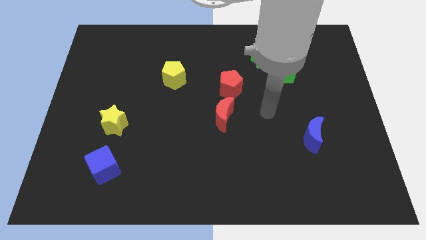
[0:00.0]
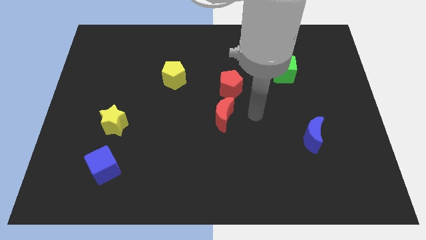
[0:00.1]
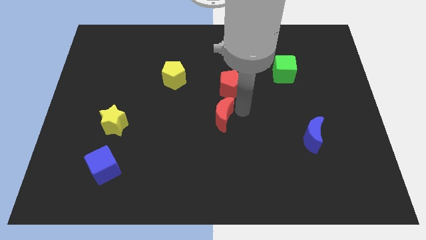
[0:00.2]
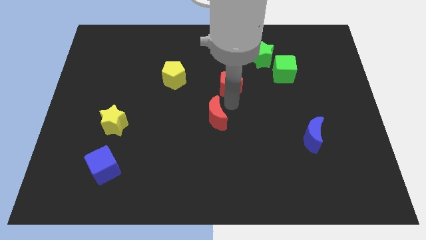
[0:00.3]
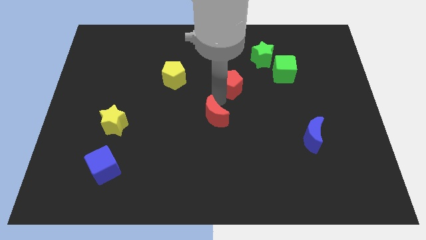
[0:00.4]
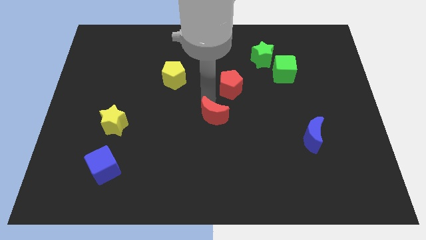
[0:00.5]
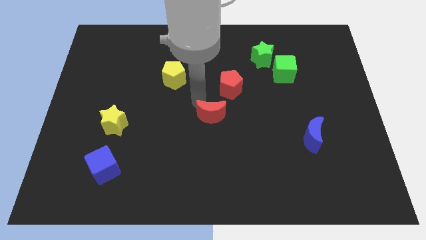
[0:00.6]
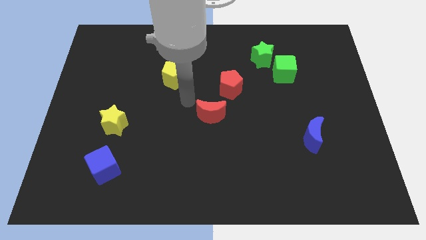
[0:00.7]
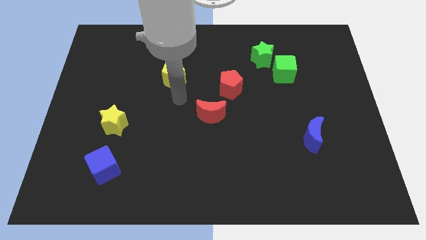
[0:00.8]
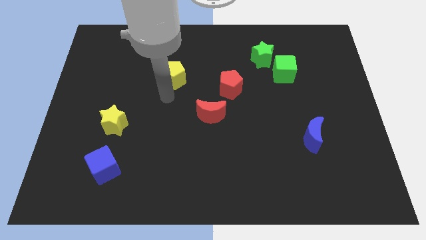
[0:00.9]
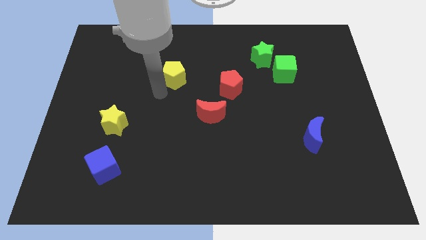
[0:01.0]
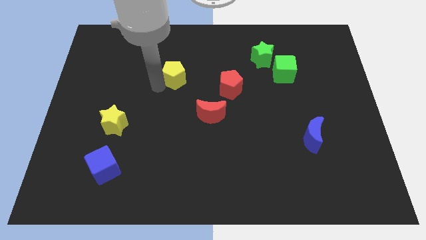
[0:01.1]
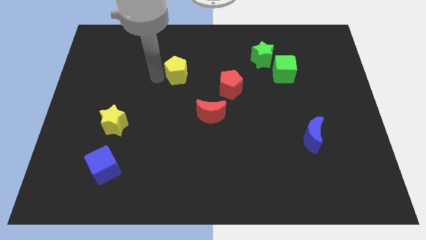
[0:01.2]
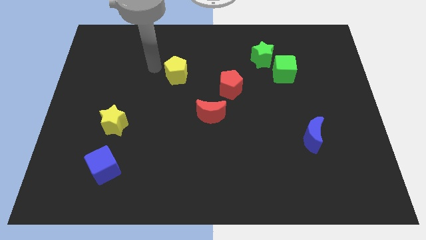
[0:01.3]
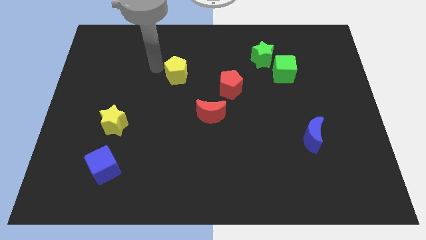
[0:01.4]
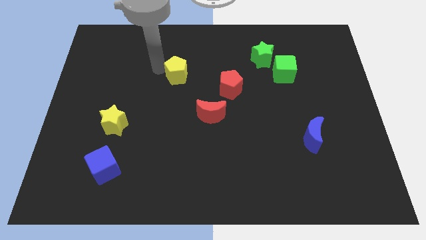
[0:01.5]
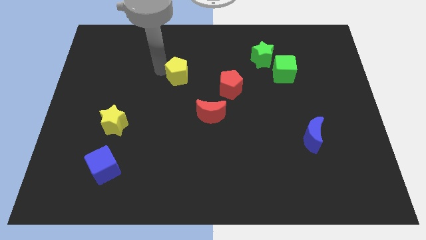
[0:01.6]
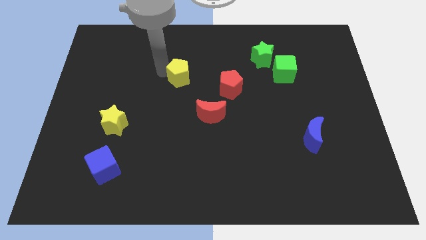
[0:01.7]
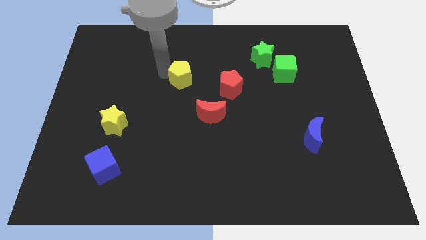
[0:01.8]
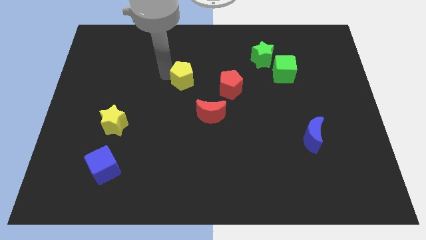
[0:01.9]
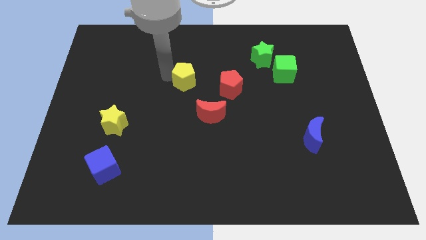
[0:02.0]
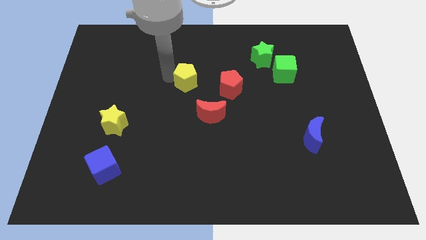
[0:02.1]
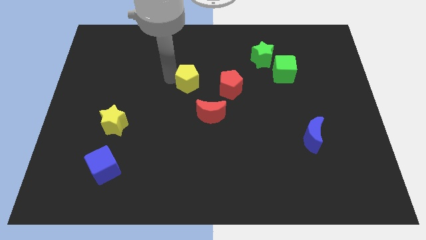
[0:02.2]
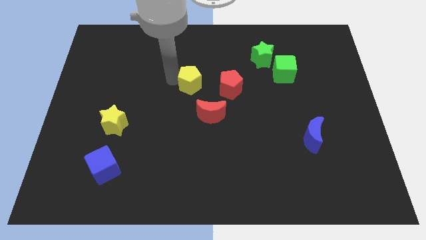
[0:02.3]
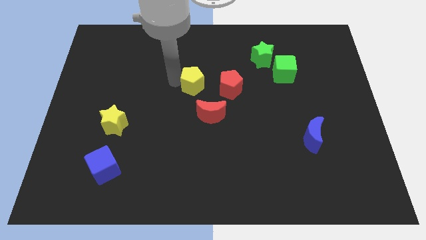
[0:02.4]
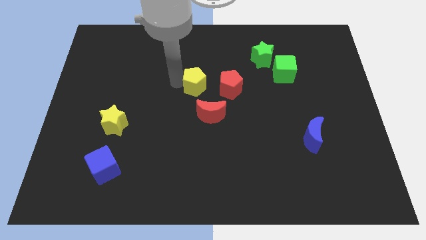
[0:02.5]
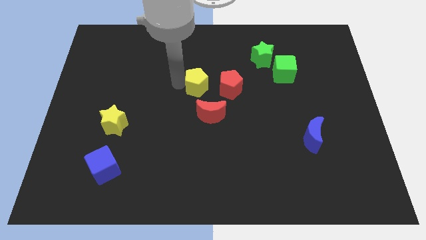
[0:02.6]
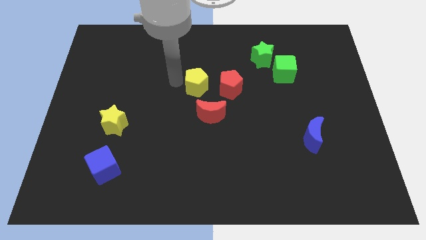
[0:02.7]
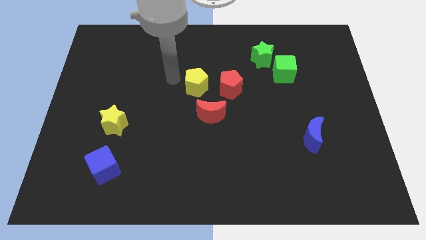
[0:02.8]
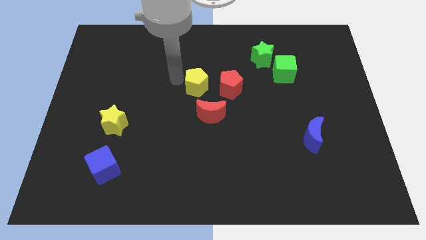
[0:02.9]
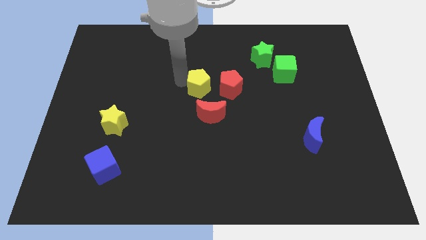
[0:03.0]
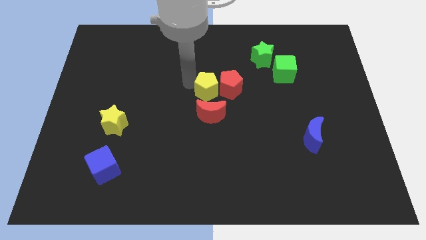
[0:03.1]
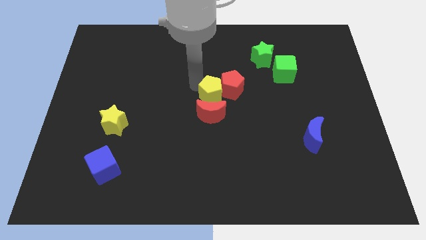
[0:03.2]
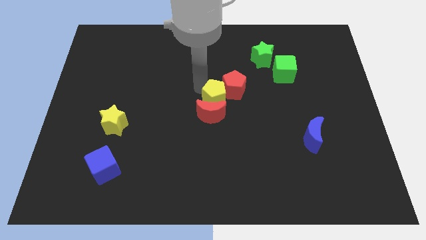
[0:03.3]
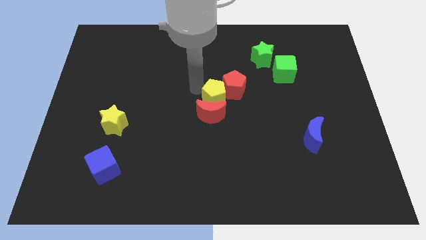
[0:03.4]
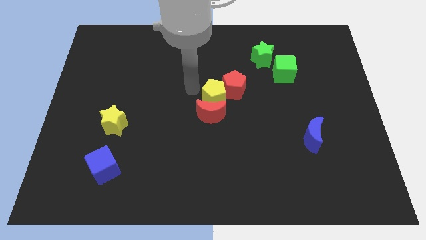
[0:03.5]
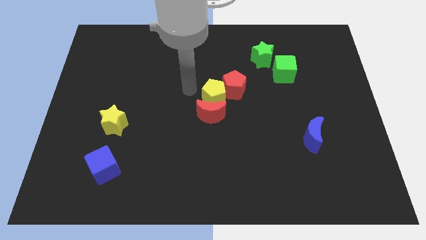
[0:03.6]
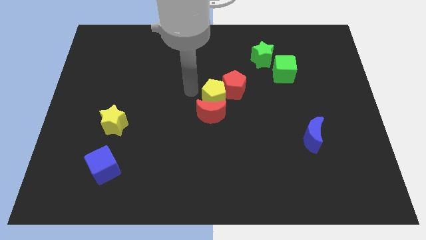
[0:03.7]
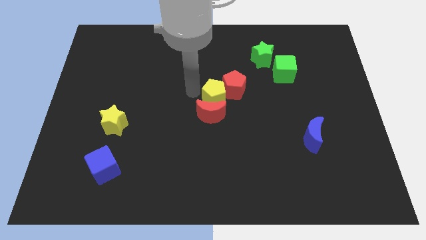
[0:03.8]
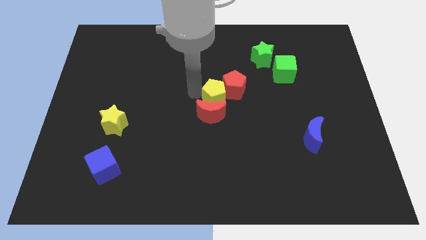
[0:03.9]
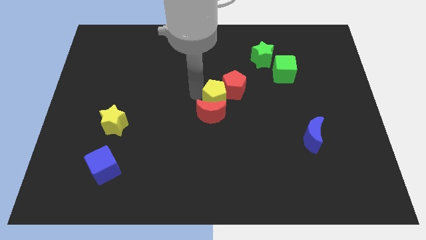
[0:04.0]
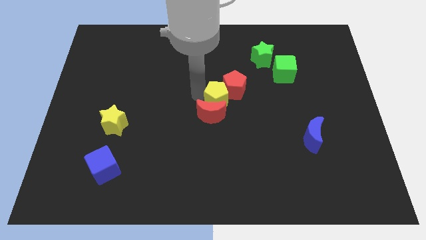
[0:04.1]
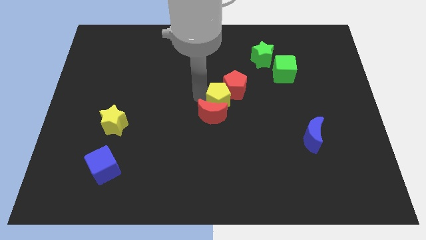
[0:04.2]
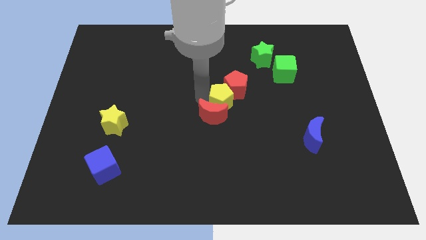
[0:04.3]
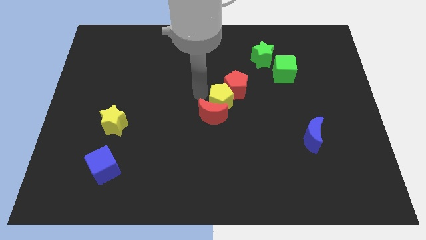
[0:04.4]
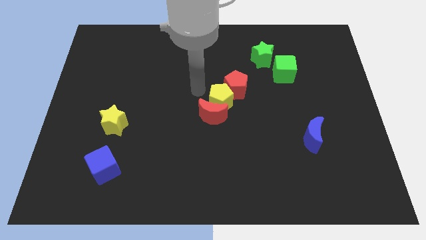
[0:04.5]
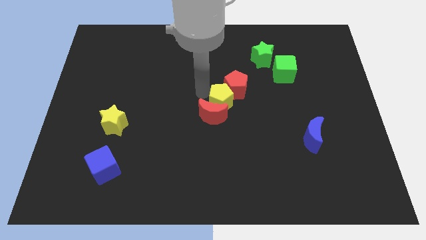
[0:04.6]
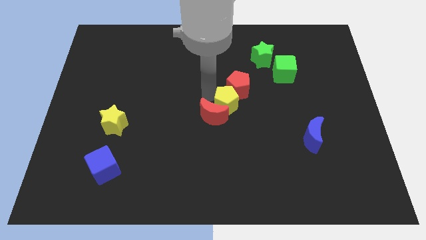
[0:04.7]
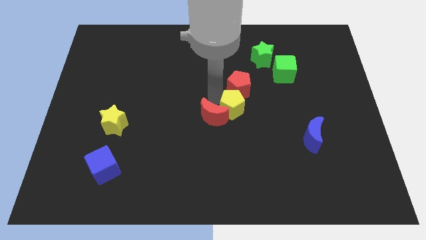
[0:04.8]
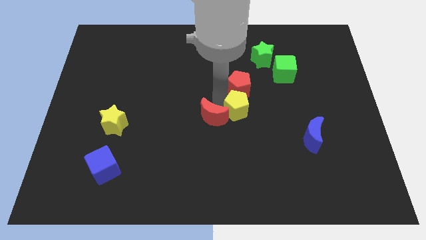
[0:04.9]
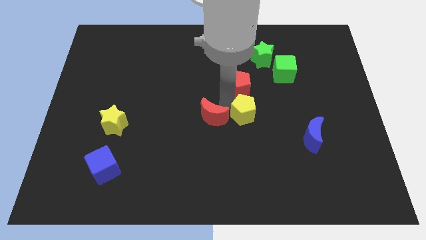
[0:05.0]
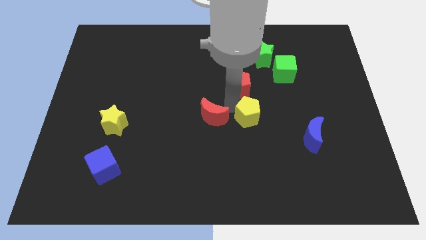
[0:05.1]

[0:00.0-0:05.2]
push the yellow pentagon down and then to the right

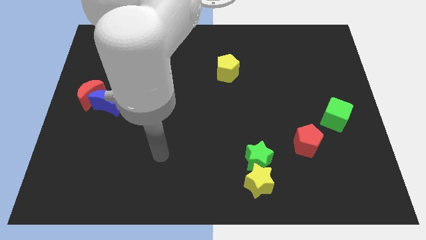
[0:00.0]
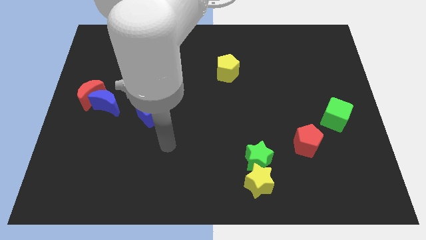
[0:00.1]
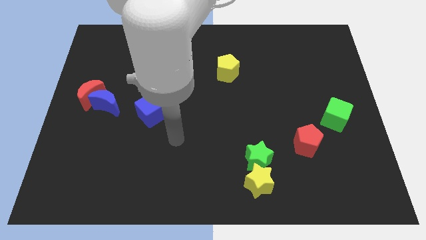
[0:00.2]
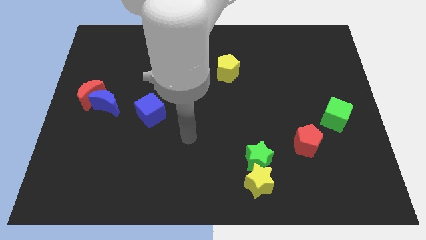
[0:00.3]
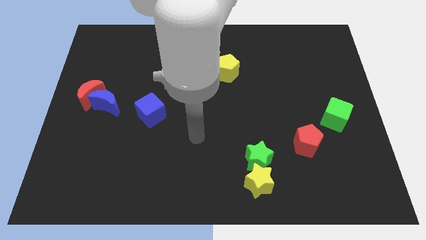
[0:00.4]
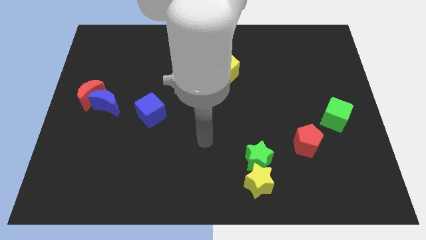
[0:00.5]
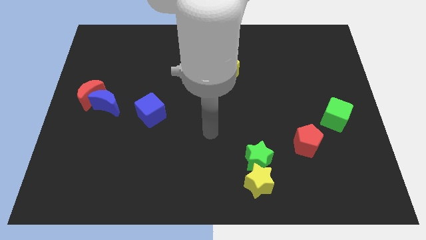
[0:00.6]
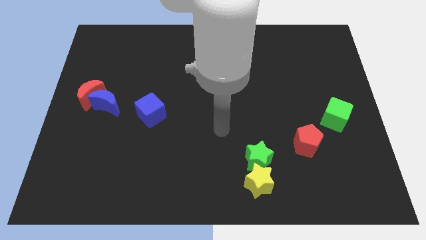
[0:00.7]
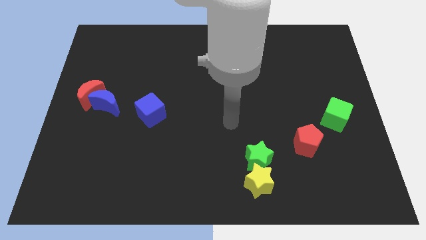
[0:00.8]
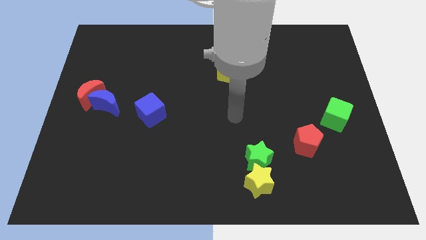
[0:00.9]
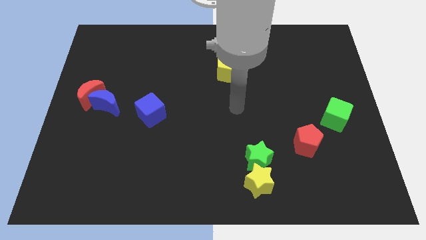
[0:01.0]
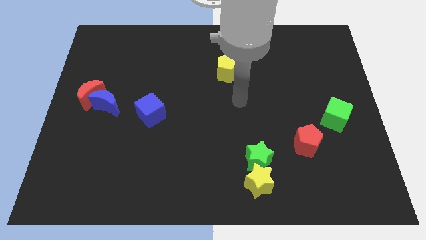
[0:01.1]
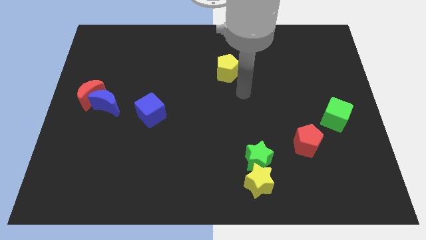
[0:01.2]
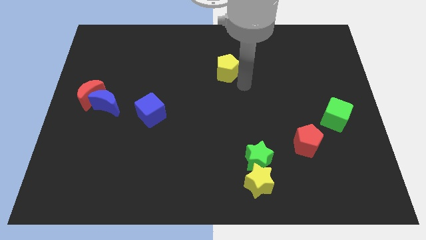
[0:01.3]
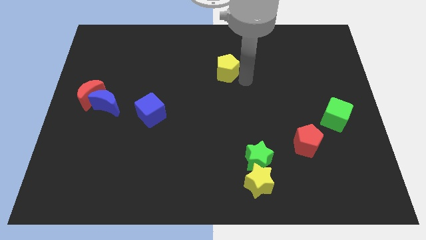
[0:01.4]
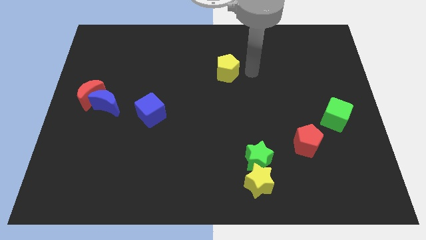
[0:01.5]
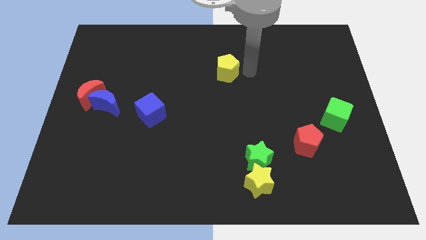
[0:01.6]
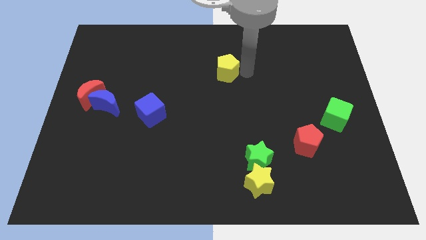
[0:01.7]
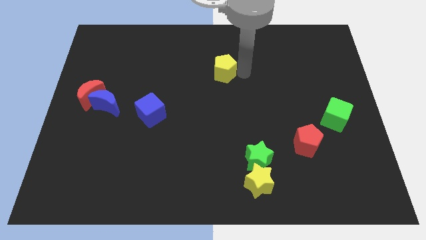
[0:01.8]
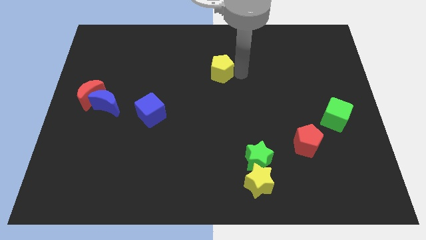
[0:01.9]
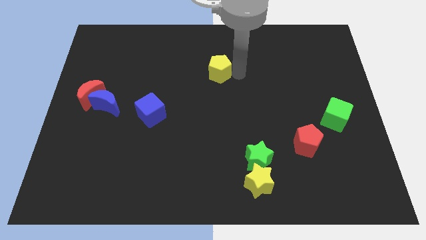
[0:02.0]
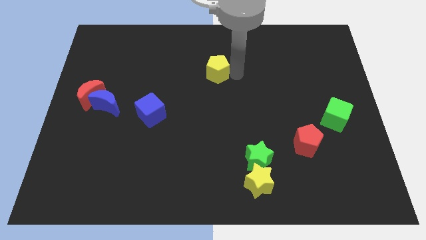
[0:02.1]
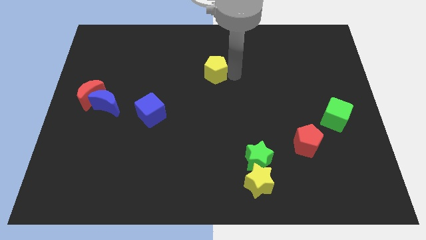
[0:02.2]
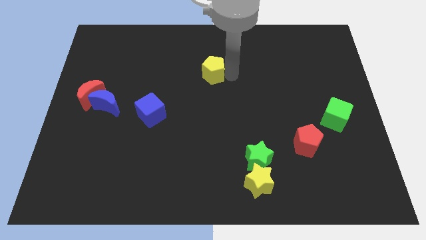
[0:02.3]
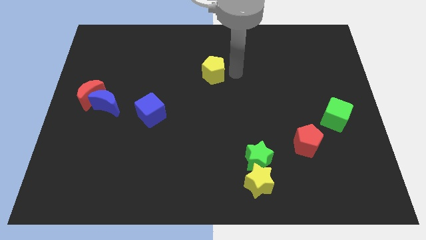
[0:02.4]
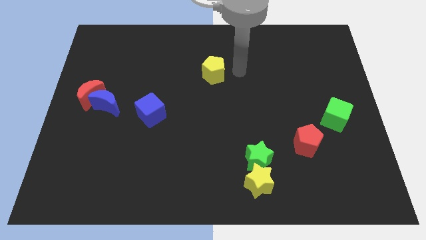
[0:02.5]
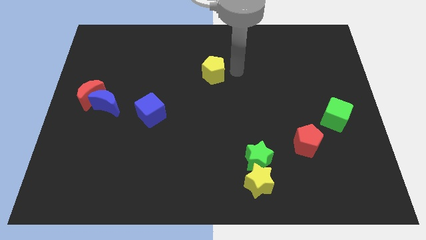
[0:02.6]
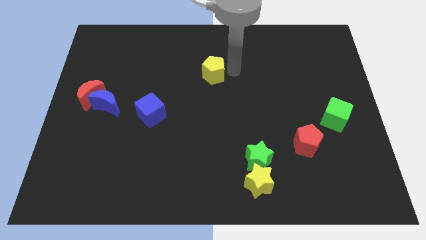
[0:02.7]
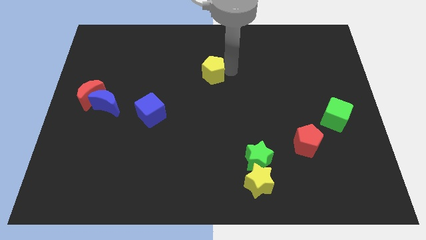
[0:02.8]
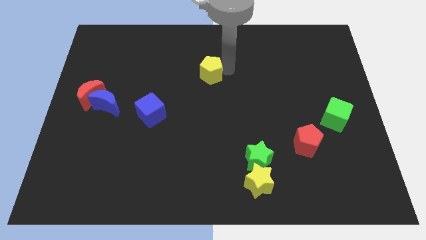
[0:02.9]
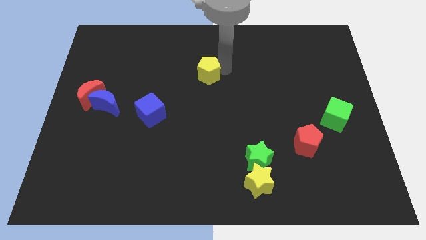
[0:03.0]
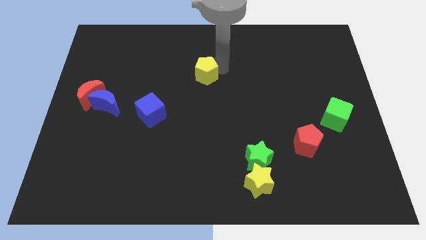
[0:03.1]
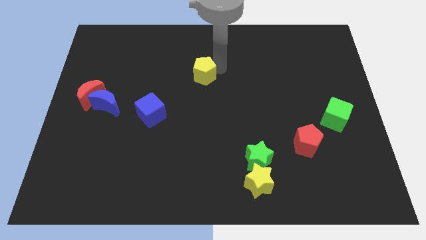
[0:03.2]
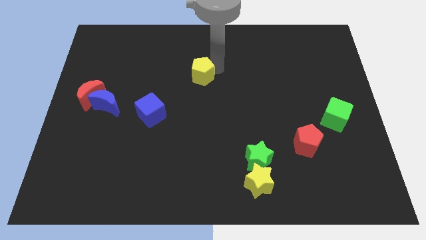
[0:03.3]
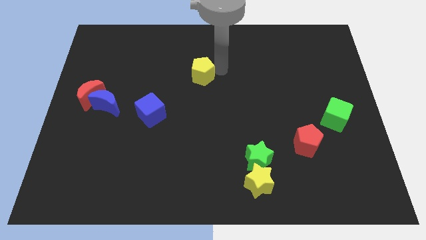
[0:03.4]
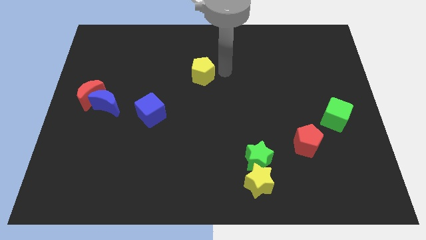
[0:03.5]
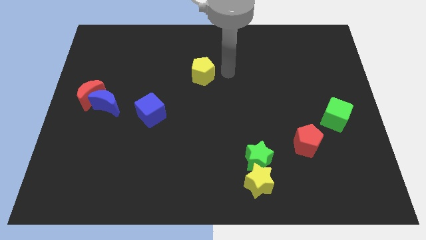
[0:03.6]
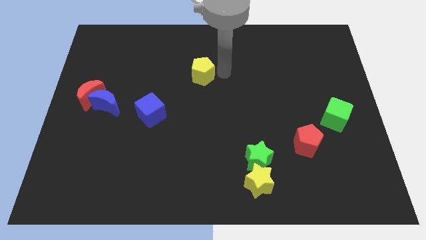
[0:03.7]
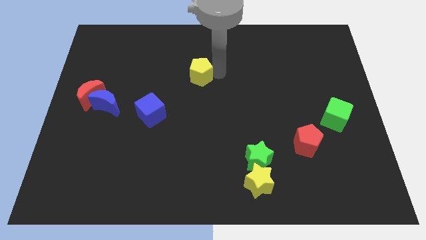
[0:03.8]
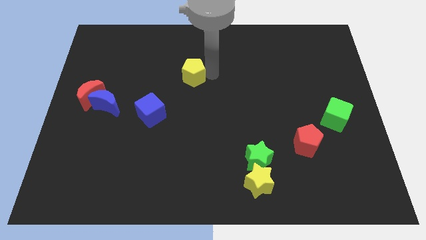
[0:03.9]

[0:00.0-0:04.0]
slide the yellow pentagon a bit to the left
